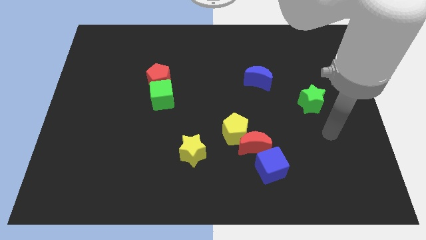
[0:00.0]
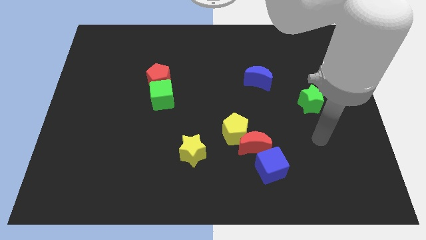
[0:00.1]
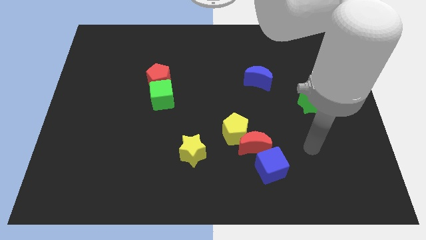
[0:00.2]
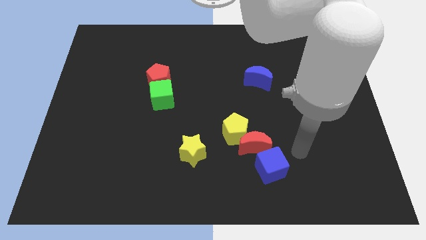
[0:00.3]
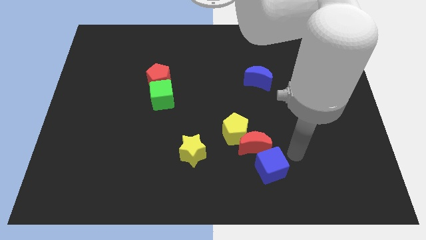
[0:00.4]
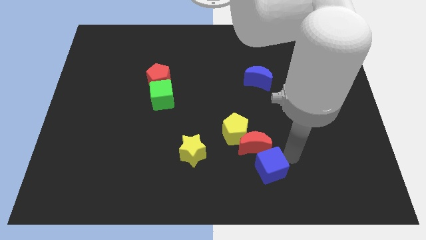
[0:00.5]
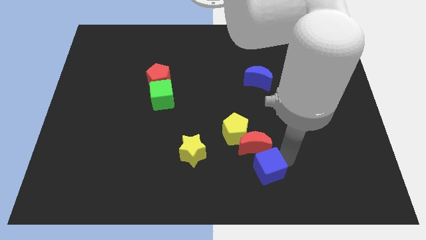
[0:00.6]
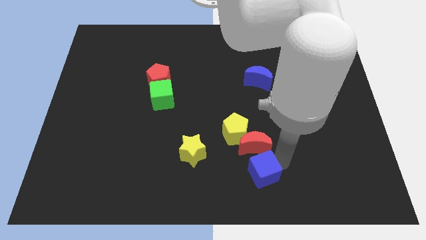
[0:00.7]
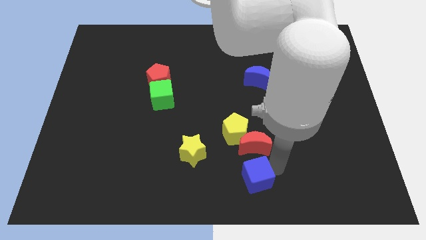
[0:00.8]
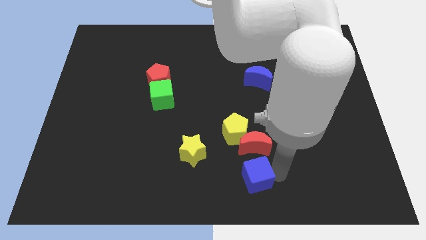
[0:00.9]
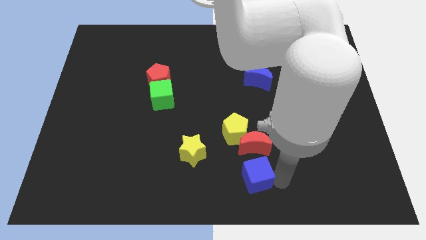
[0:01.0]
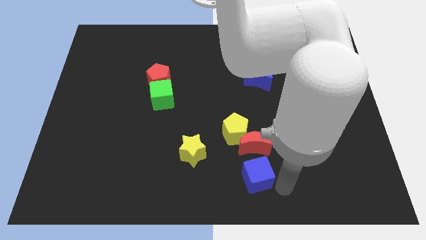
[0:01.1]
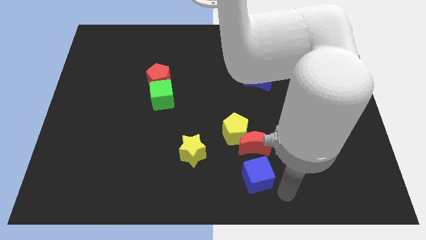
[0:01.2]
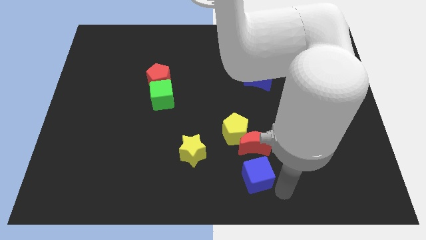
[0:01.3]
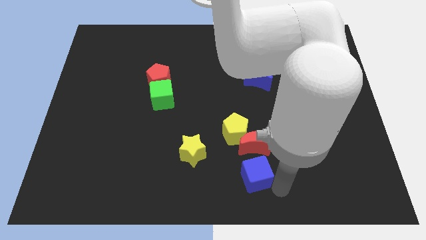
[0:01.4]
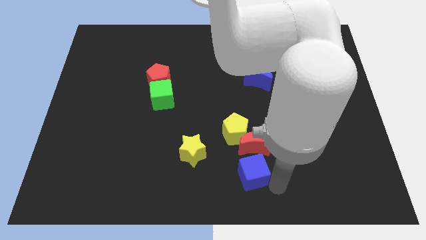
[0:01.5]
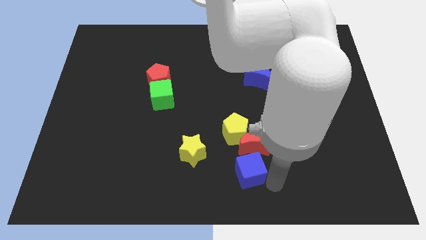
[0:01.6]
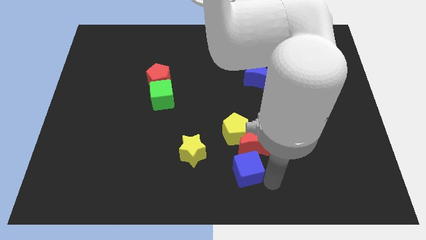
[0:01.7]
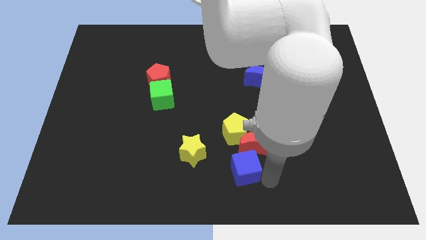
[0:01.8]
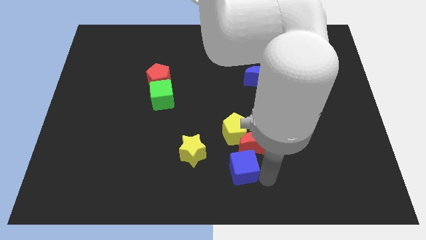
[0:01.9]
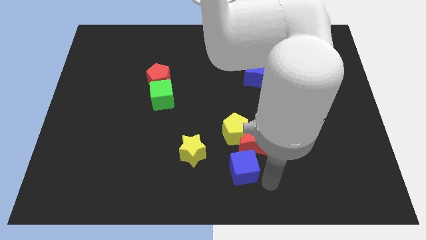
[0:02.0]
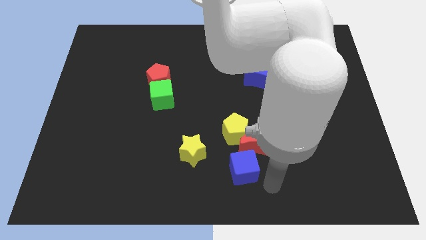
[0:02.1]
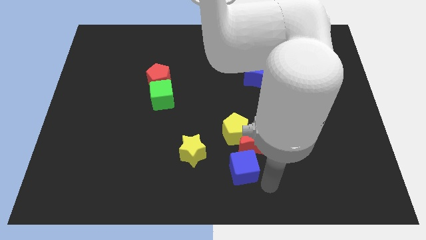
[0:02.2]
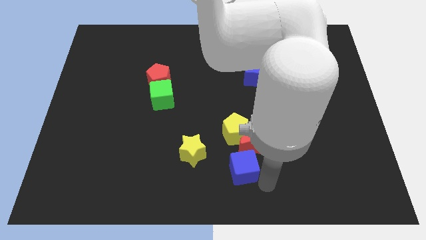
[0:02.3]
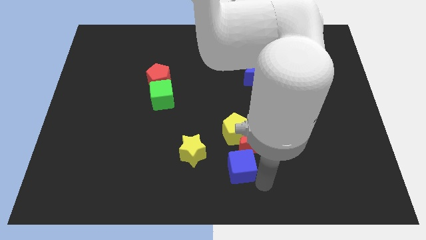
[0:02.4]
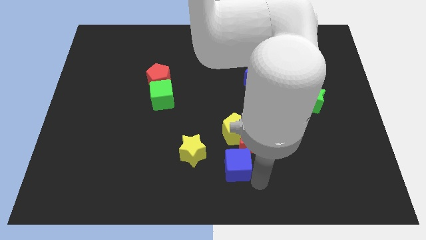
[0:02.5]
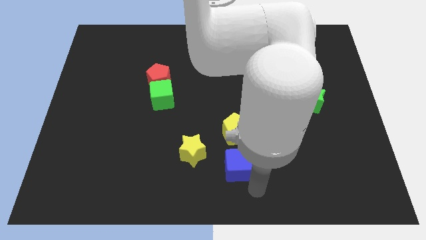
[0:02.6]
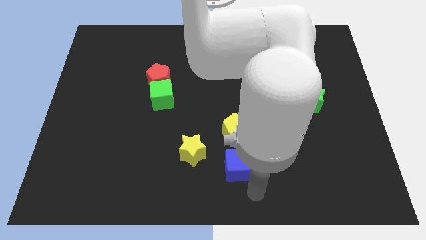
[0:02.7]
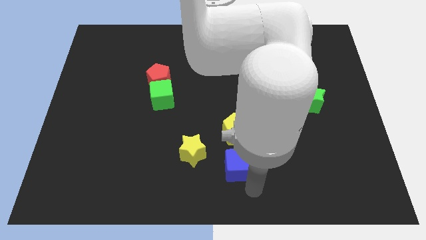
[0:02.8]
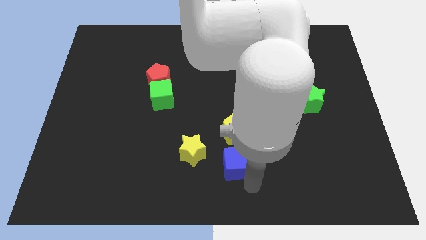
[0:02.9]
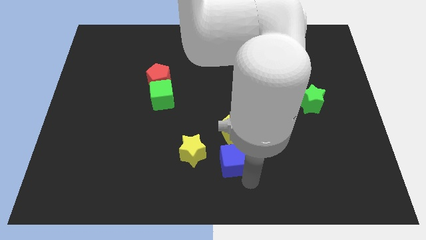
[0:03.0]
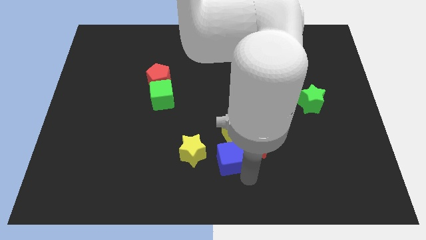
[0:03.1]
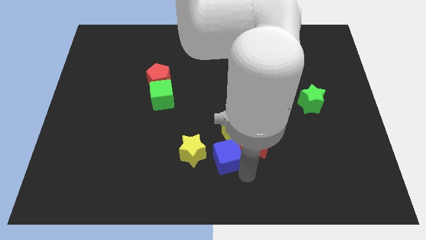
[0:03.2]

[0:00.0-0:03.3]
slightly move the blue cube upwards and left diagonally

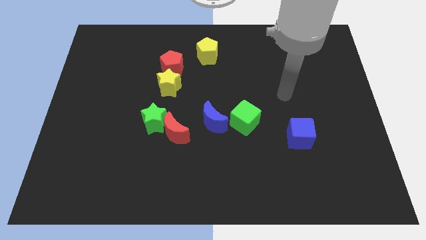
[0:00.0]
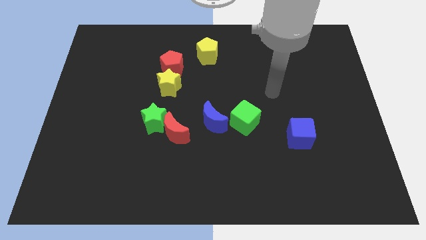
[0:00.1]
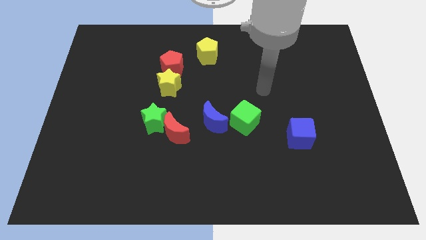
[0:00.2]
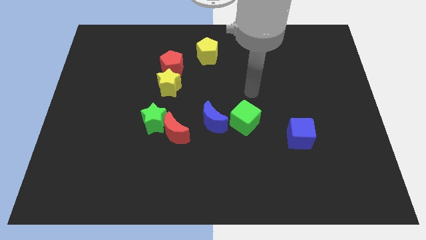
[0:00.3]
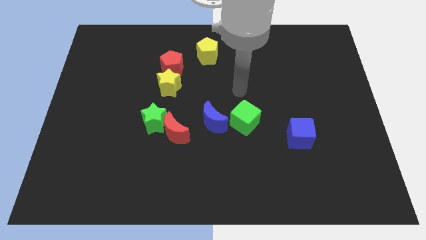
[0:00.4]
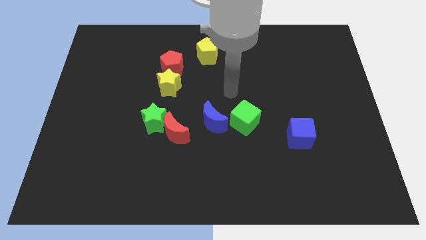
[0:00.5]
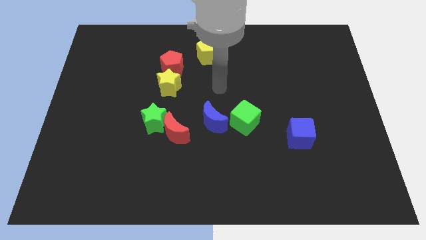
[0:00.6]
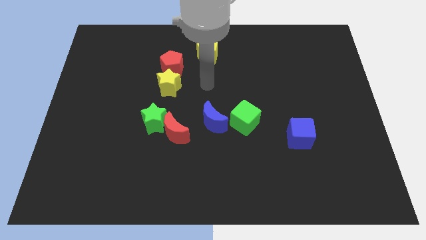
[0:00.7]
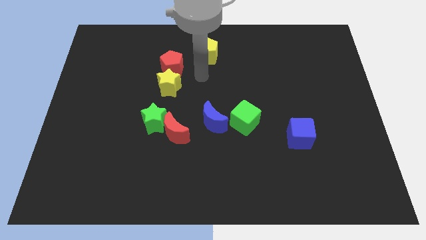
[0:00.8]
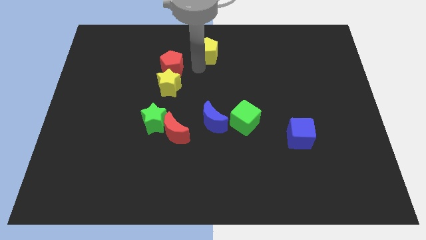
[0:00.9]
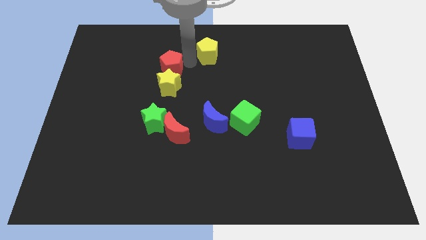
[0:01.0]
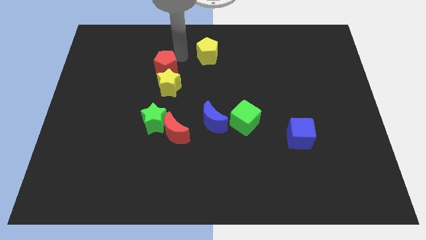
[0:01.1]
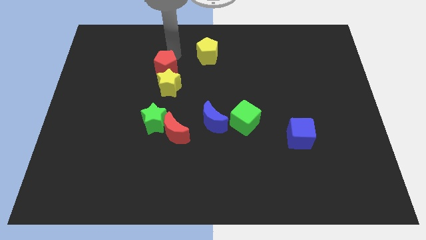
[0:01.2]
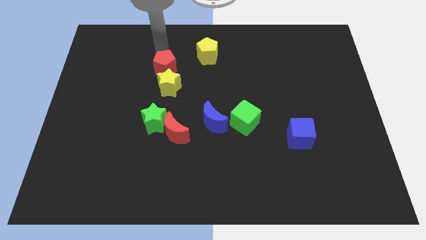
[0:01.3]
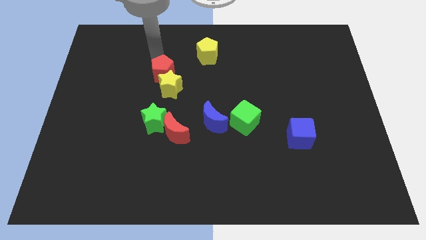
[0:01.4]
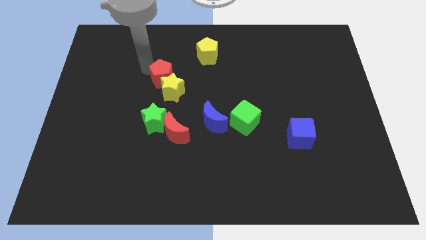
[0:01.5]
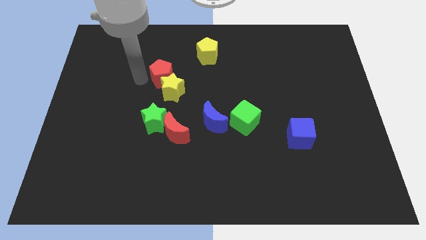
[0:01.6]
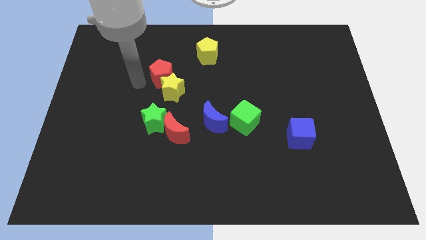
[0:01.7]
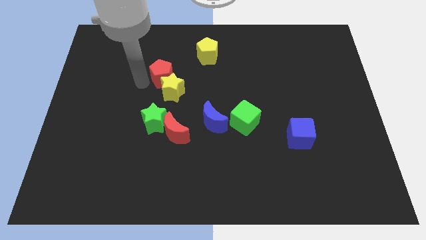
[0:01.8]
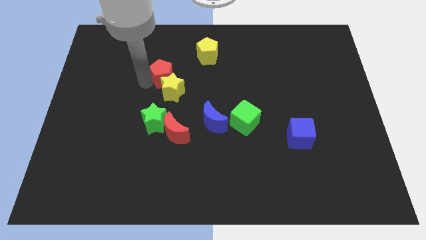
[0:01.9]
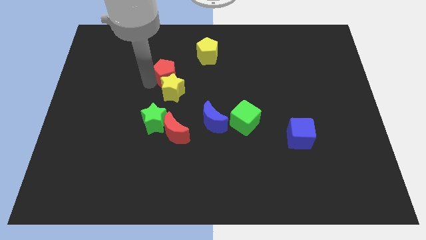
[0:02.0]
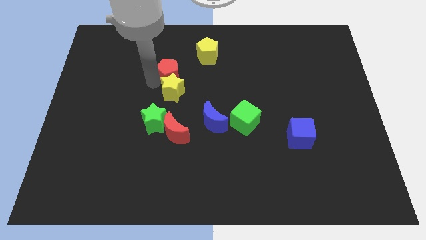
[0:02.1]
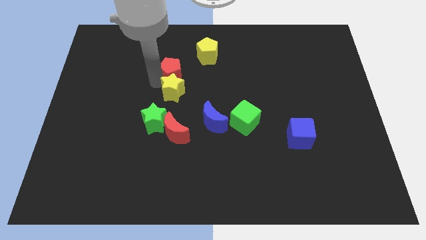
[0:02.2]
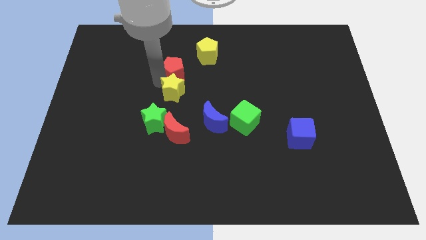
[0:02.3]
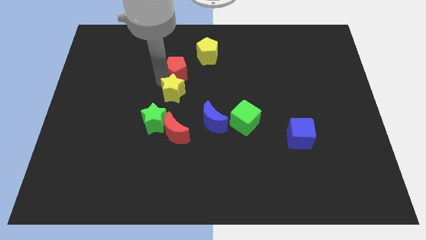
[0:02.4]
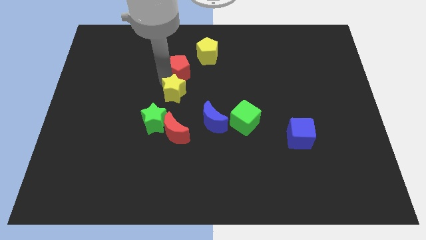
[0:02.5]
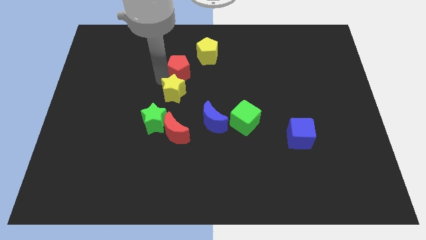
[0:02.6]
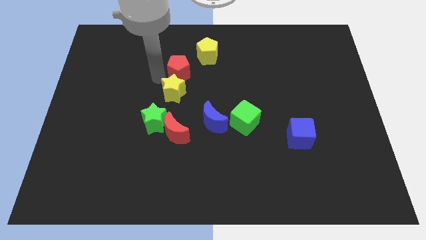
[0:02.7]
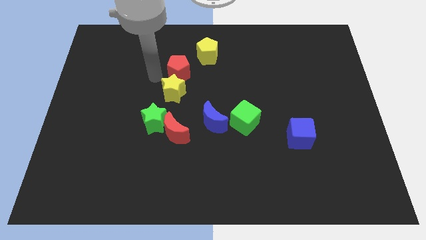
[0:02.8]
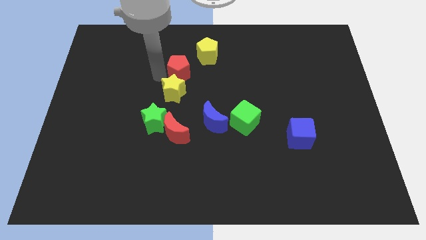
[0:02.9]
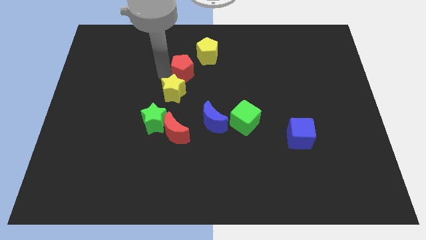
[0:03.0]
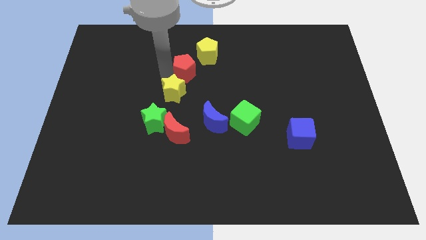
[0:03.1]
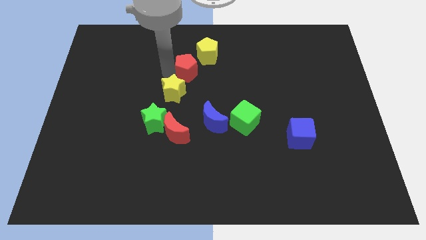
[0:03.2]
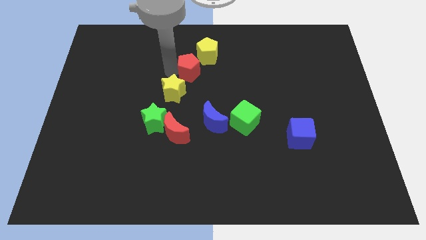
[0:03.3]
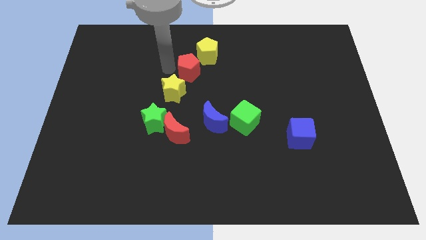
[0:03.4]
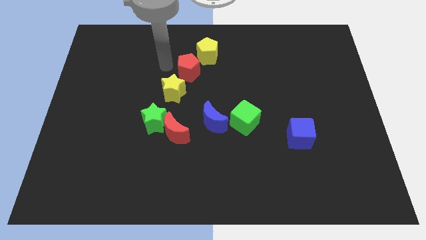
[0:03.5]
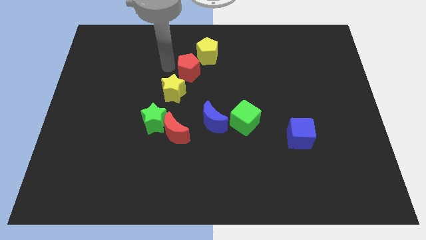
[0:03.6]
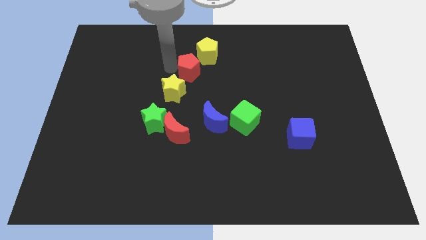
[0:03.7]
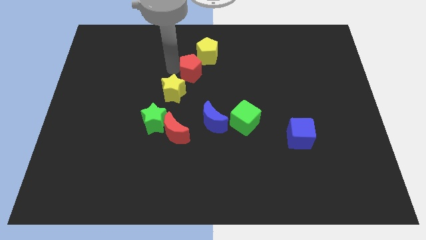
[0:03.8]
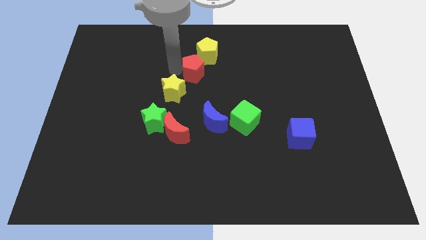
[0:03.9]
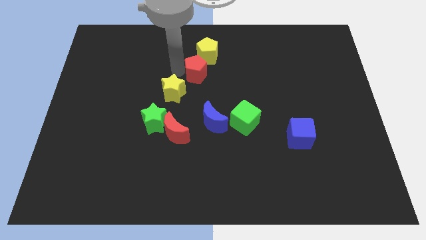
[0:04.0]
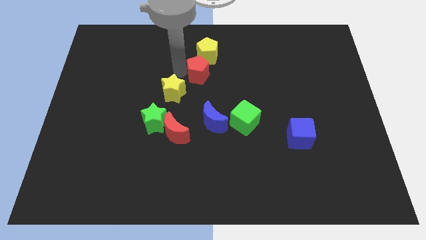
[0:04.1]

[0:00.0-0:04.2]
slightly slide the red pentagon to the right

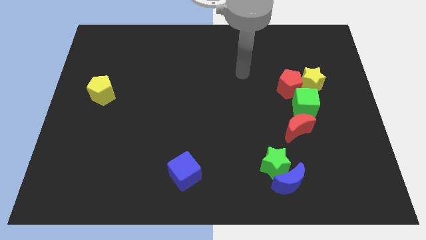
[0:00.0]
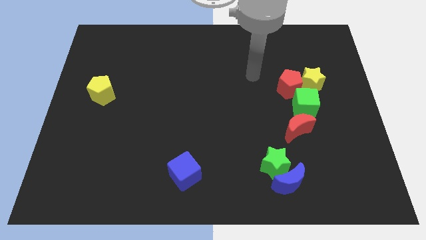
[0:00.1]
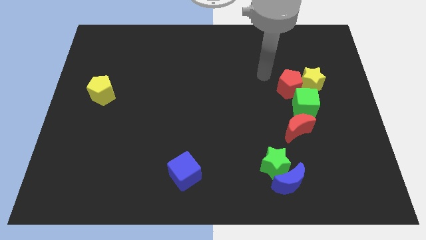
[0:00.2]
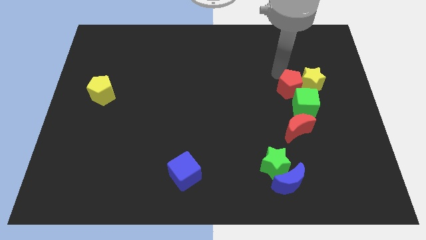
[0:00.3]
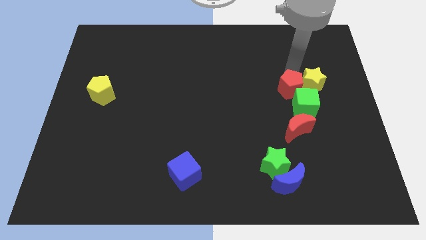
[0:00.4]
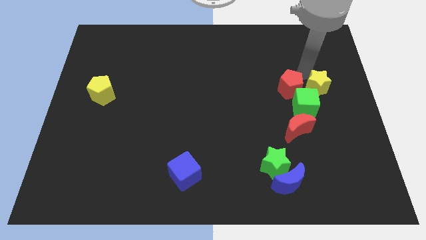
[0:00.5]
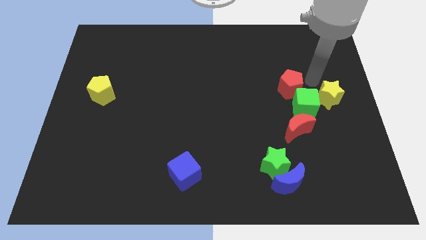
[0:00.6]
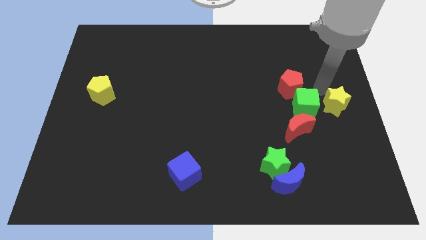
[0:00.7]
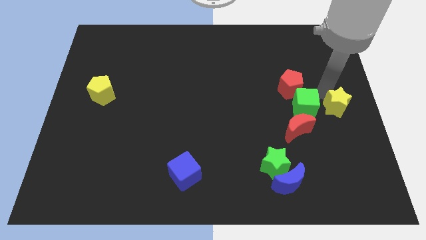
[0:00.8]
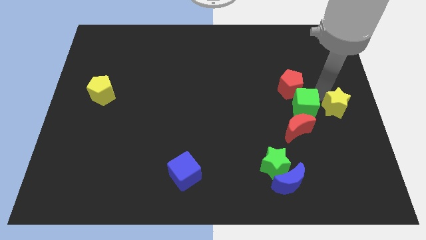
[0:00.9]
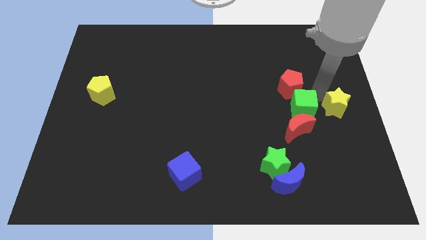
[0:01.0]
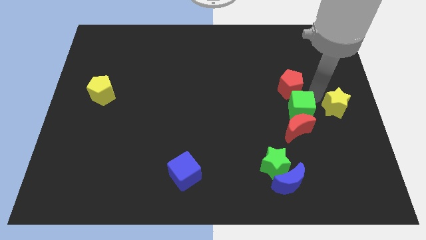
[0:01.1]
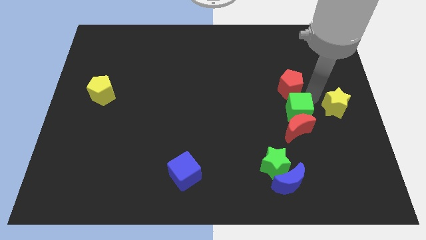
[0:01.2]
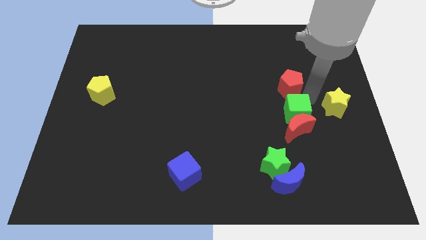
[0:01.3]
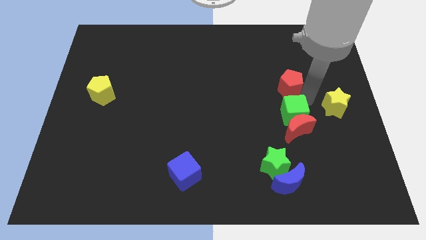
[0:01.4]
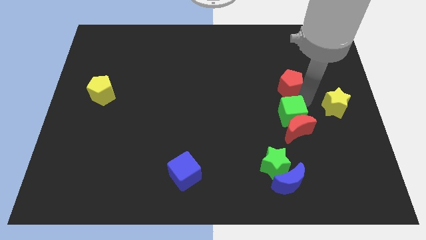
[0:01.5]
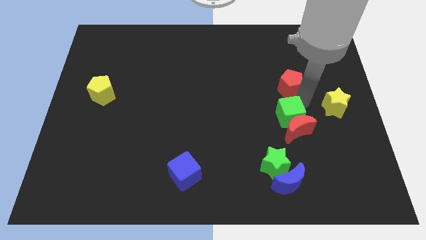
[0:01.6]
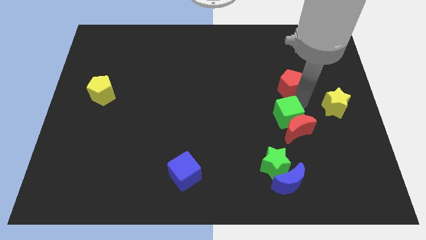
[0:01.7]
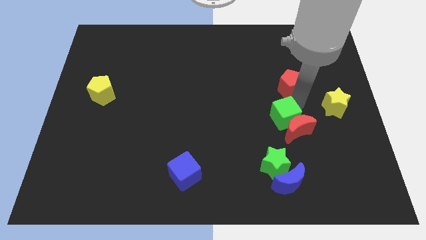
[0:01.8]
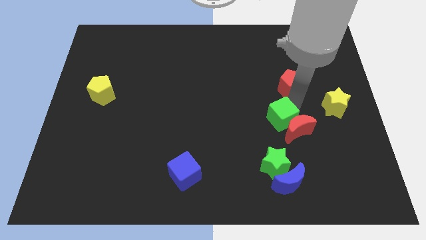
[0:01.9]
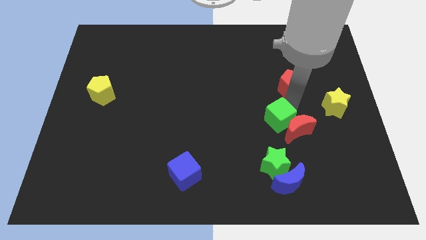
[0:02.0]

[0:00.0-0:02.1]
slide the green cube slightly downwards and to the left
